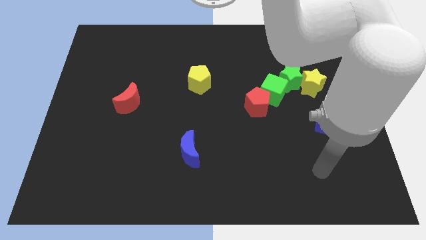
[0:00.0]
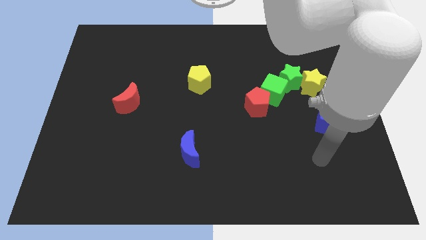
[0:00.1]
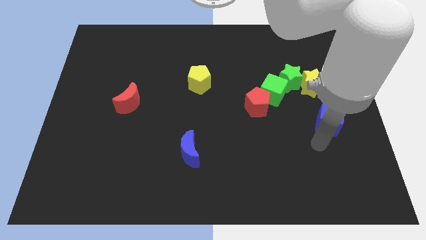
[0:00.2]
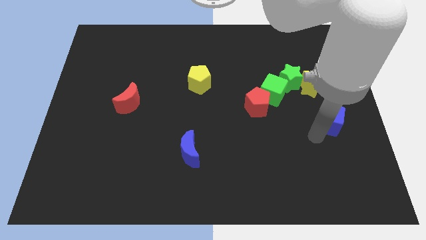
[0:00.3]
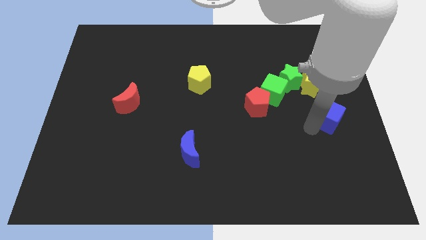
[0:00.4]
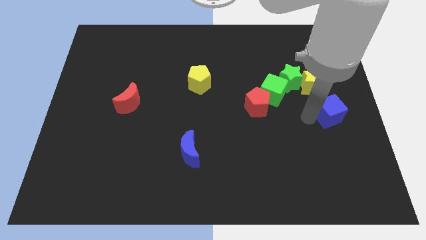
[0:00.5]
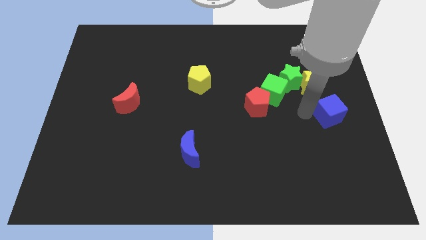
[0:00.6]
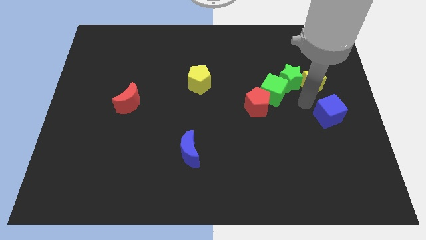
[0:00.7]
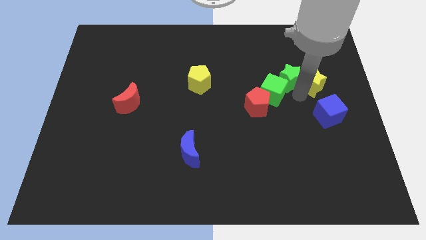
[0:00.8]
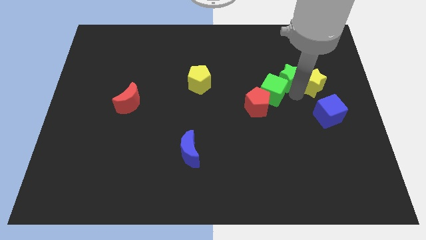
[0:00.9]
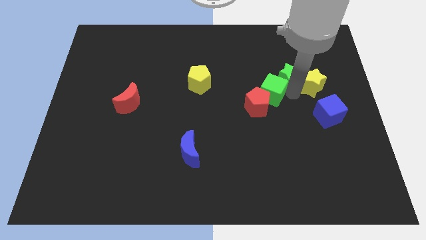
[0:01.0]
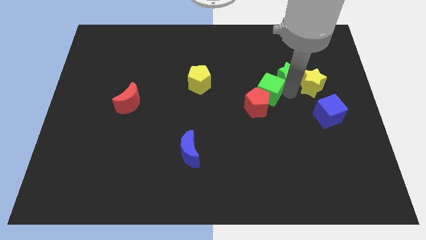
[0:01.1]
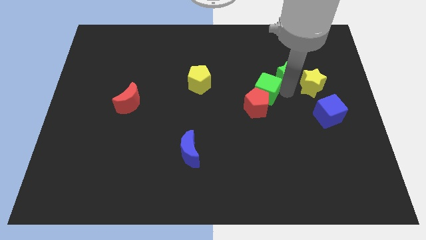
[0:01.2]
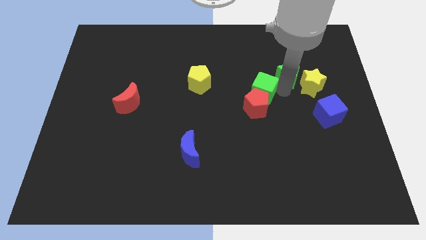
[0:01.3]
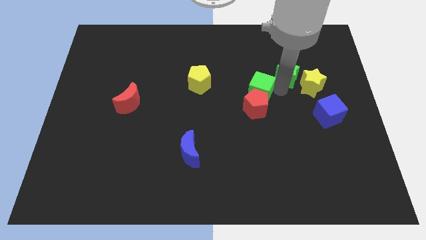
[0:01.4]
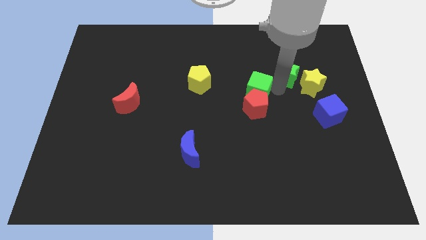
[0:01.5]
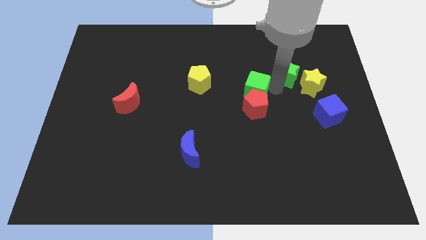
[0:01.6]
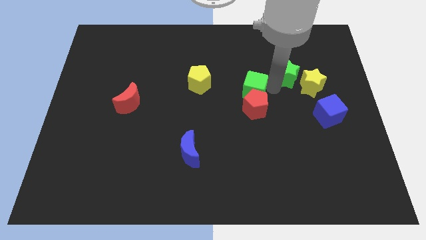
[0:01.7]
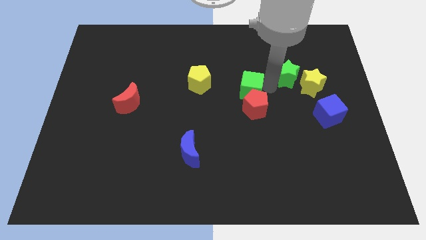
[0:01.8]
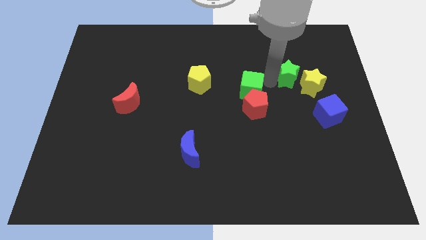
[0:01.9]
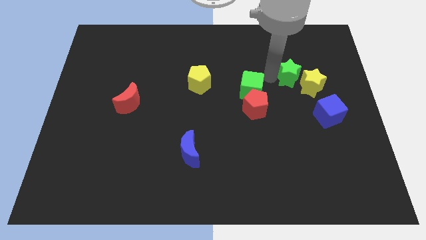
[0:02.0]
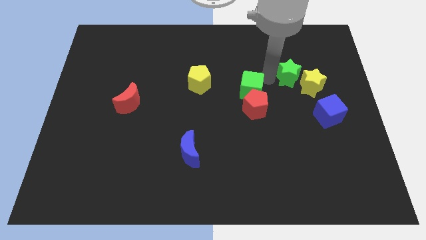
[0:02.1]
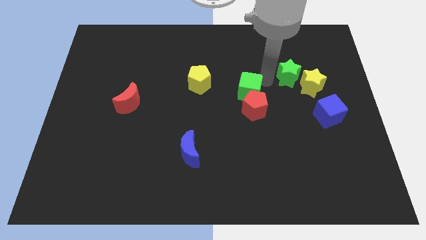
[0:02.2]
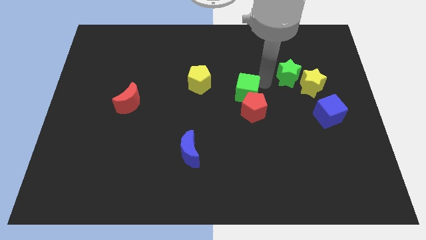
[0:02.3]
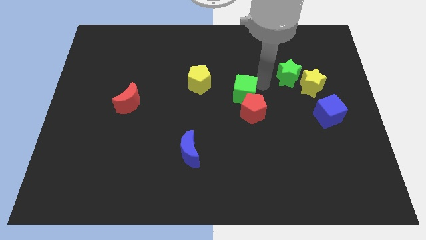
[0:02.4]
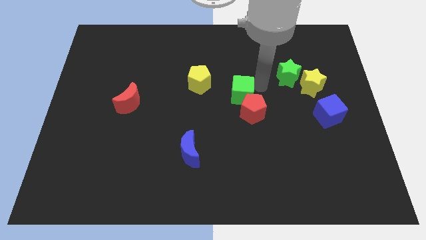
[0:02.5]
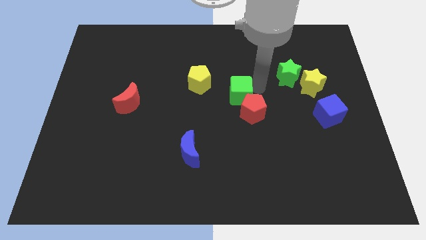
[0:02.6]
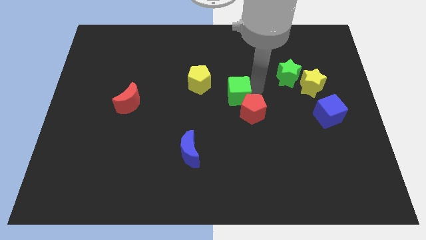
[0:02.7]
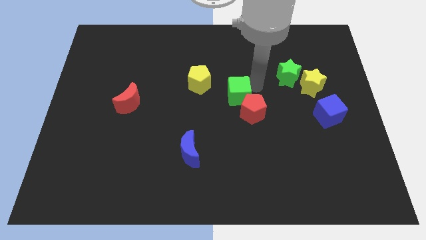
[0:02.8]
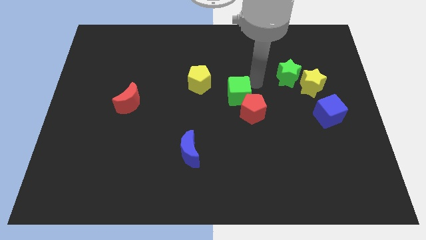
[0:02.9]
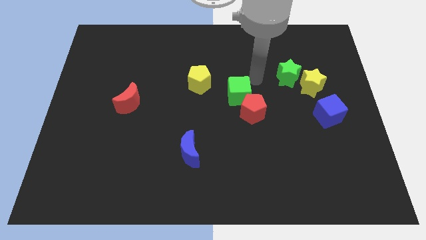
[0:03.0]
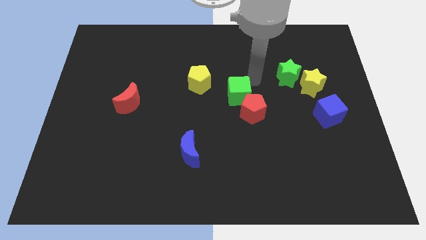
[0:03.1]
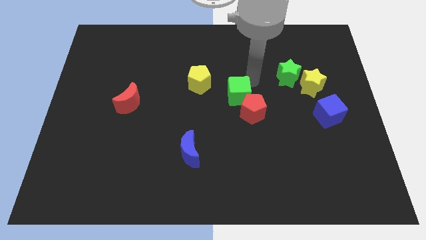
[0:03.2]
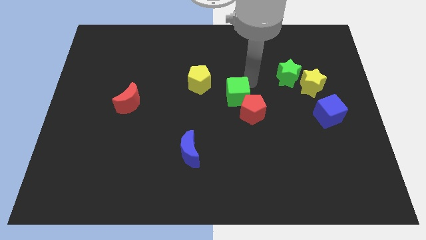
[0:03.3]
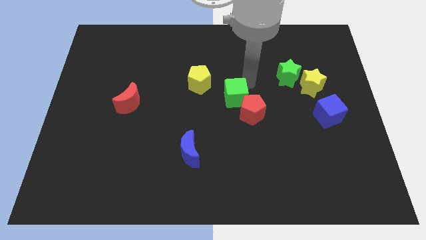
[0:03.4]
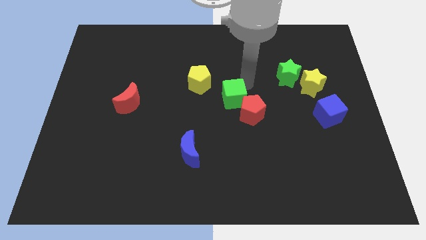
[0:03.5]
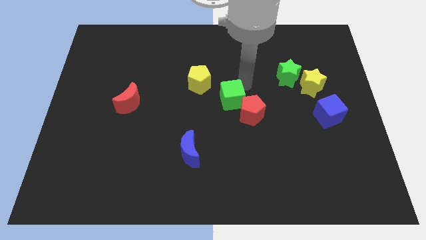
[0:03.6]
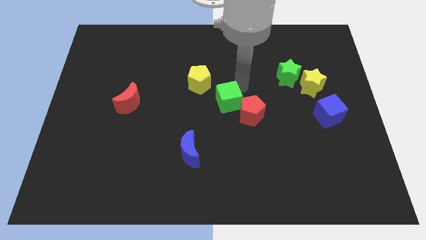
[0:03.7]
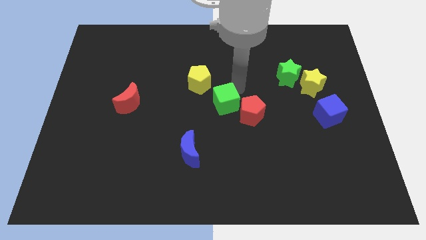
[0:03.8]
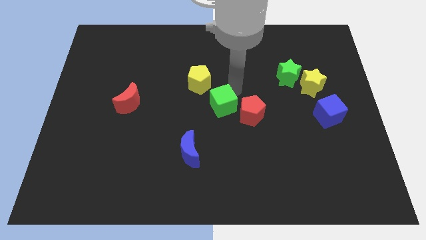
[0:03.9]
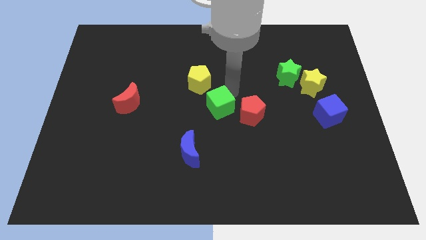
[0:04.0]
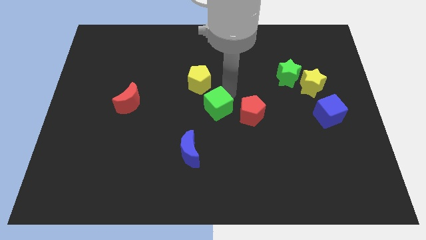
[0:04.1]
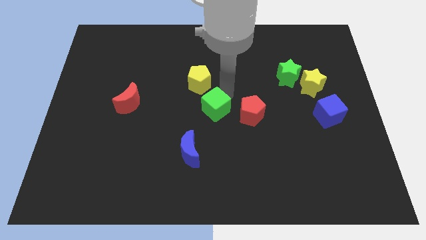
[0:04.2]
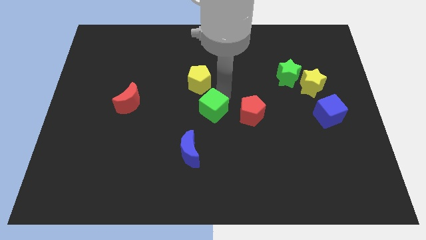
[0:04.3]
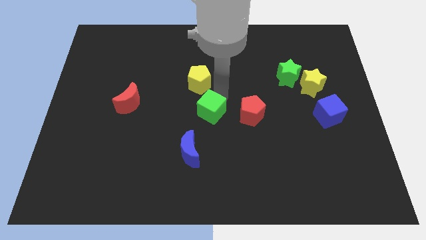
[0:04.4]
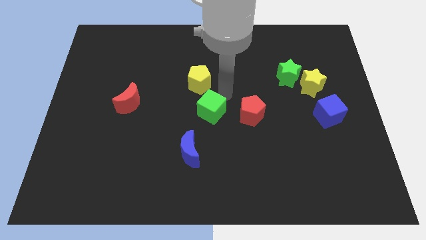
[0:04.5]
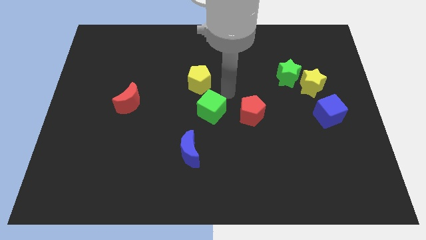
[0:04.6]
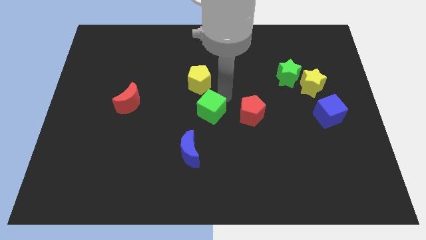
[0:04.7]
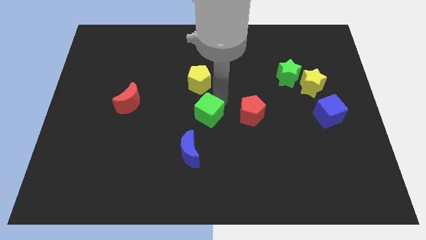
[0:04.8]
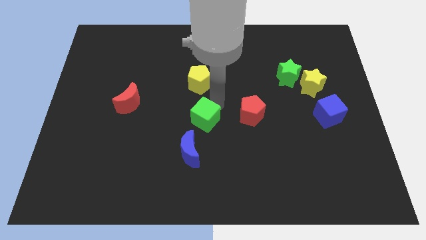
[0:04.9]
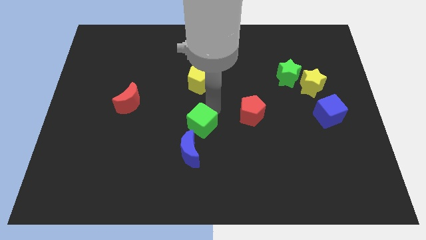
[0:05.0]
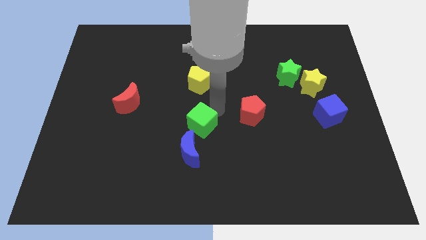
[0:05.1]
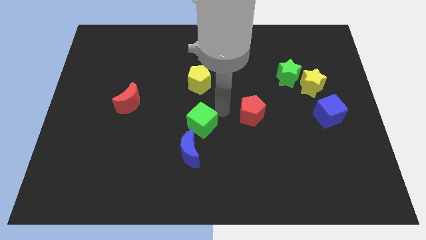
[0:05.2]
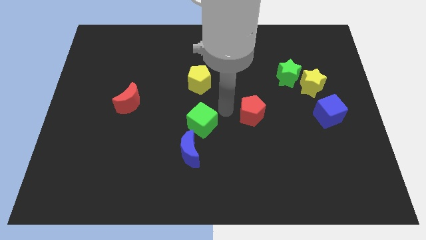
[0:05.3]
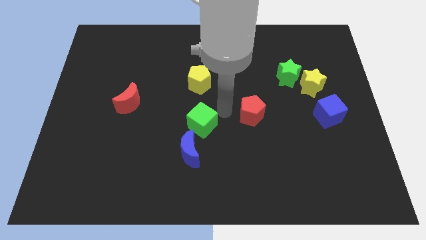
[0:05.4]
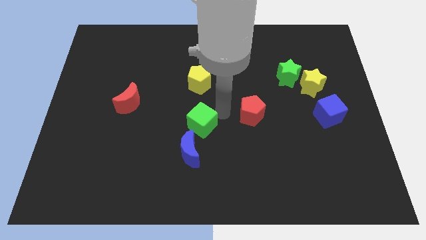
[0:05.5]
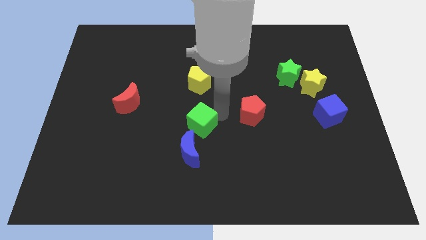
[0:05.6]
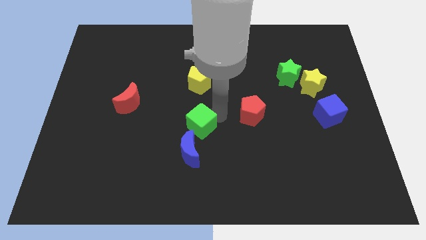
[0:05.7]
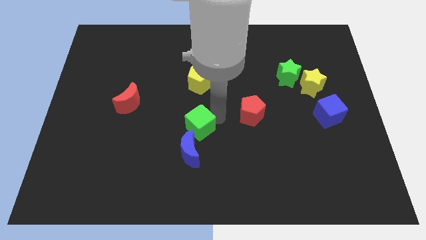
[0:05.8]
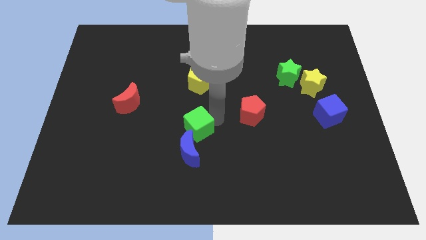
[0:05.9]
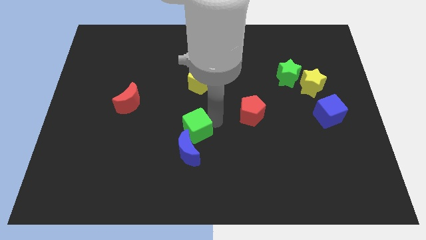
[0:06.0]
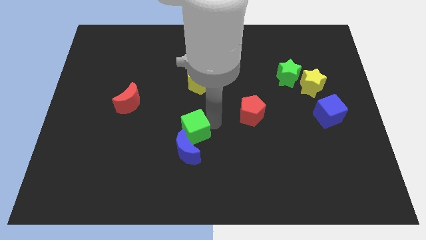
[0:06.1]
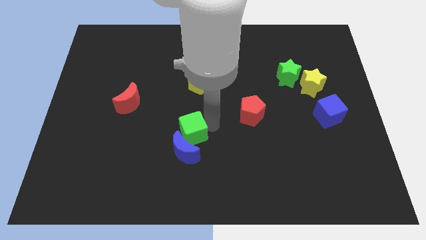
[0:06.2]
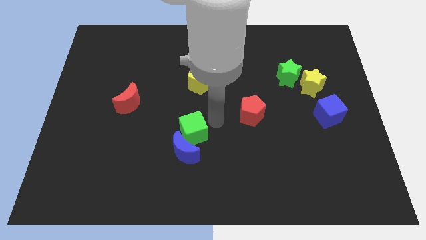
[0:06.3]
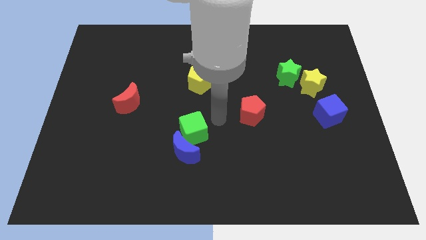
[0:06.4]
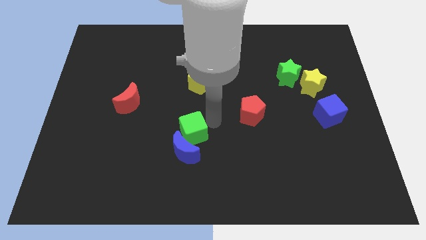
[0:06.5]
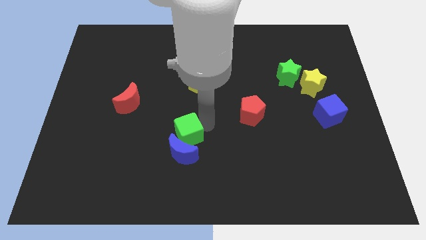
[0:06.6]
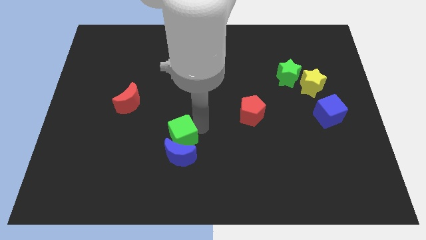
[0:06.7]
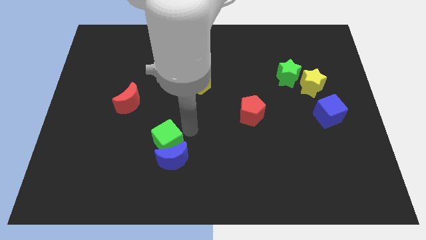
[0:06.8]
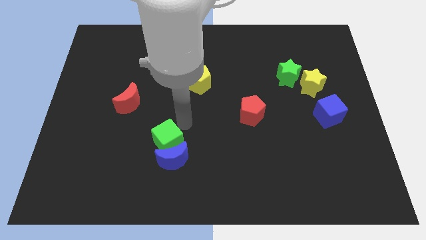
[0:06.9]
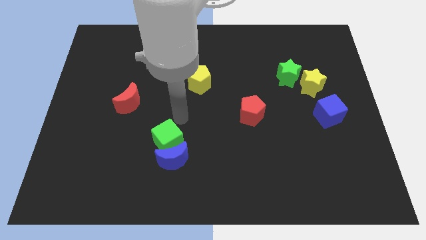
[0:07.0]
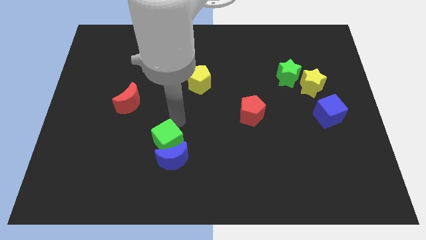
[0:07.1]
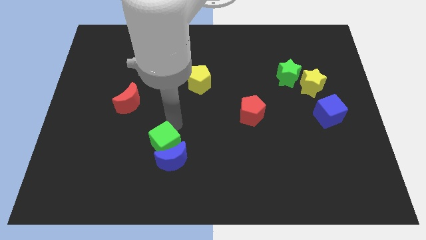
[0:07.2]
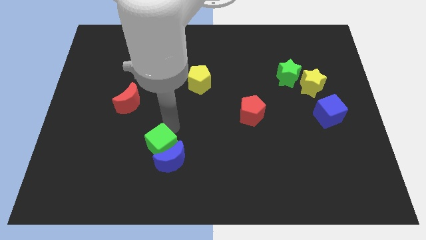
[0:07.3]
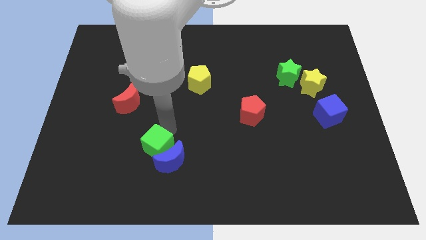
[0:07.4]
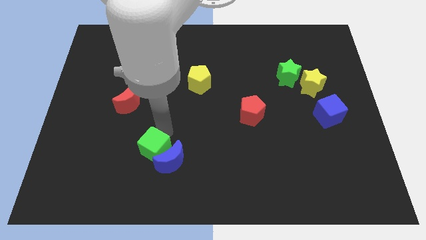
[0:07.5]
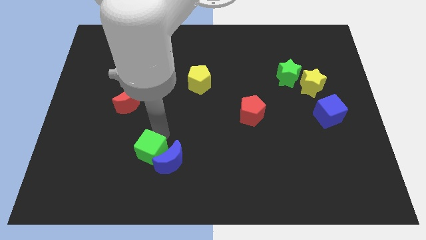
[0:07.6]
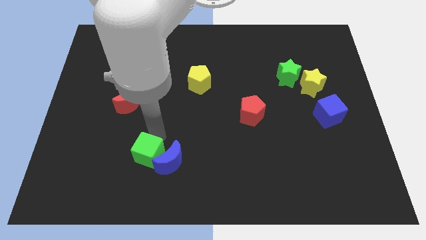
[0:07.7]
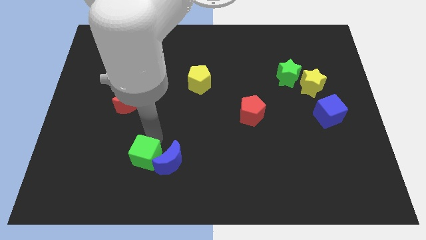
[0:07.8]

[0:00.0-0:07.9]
slide the green cube to the bottom left of the blue moon
